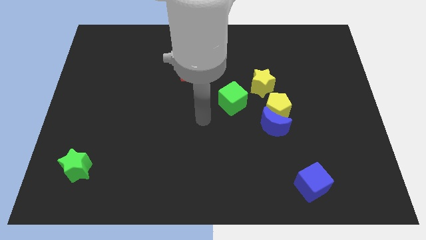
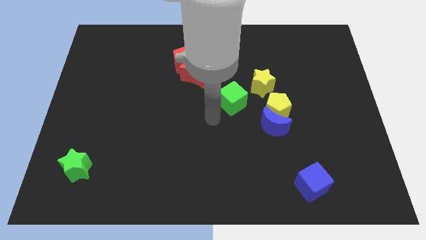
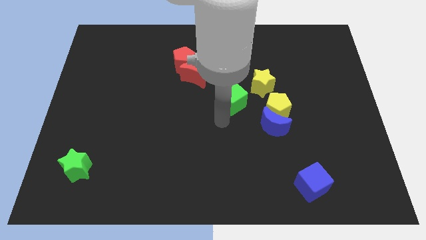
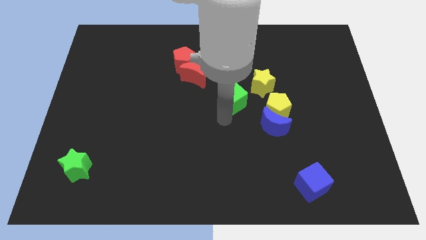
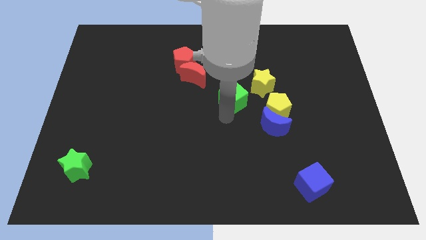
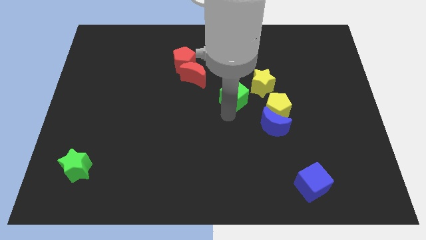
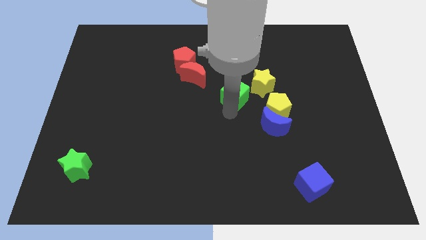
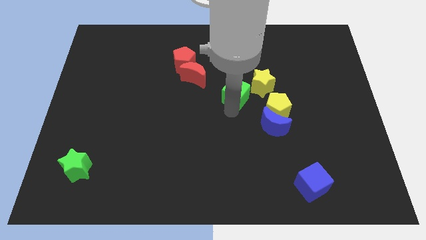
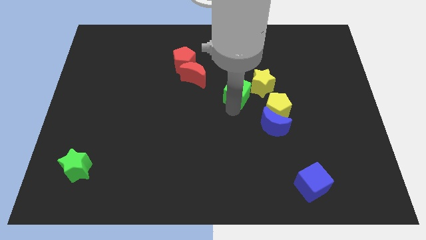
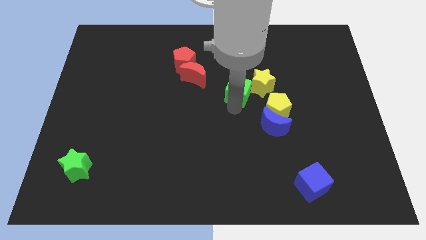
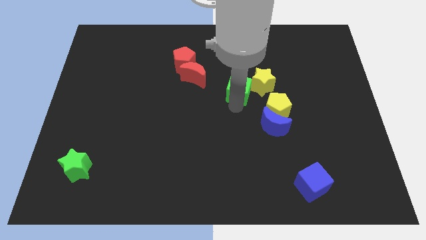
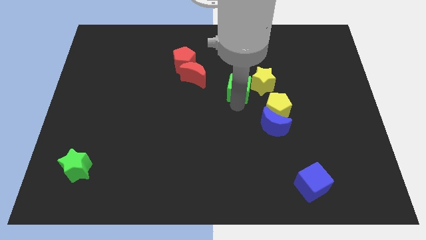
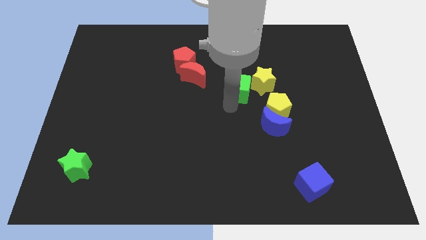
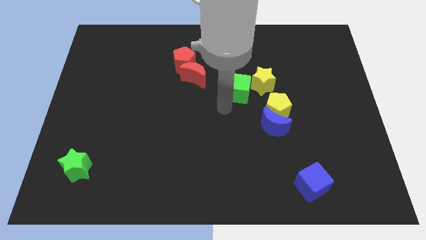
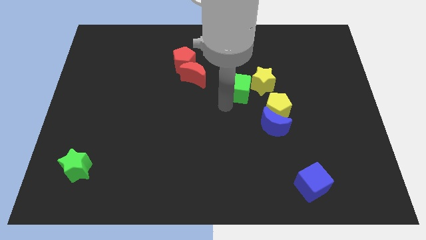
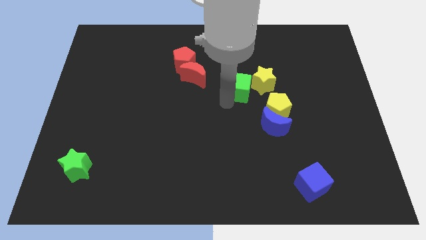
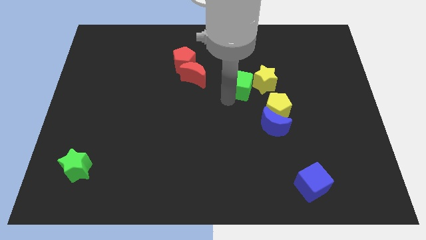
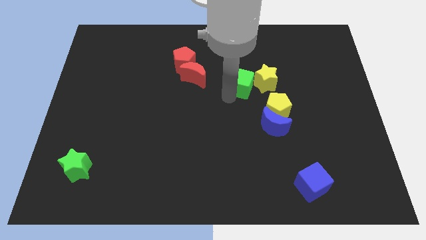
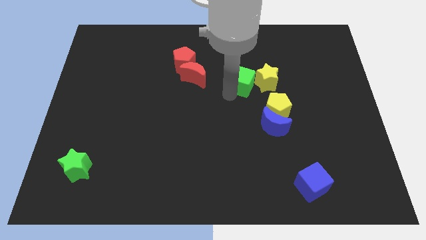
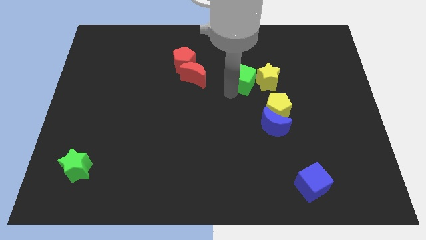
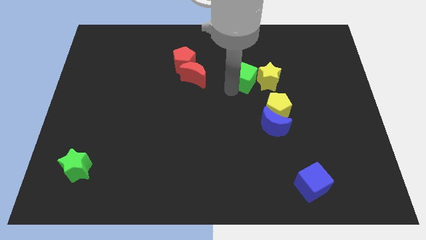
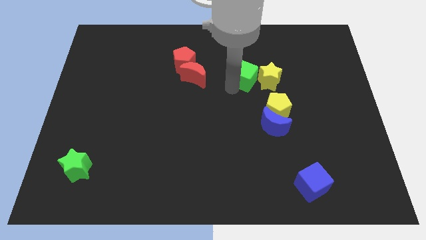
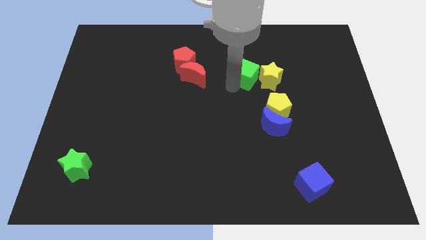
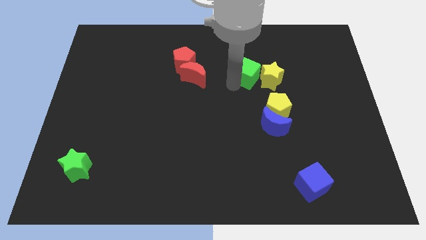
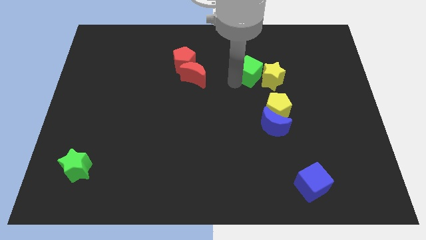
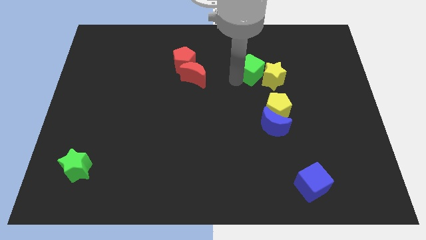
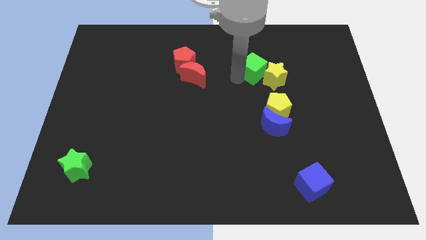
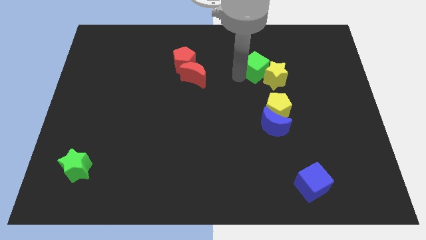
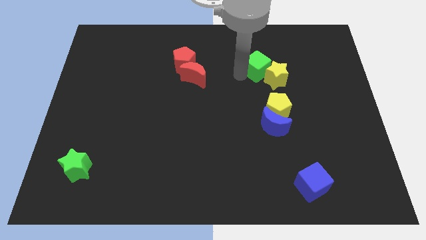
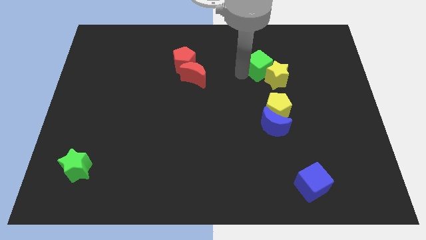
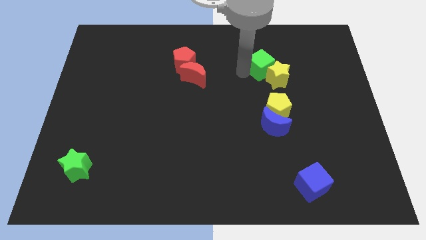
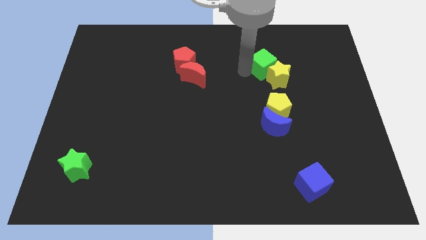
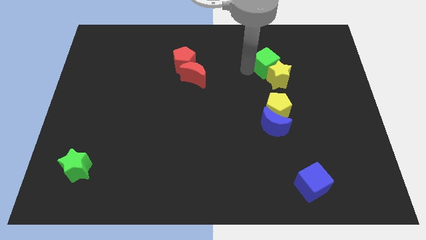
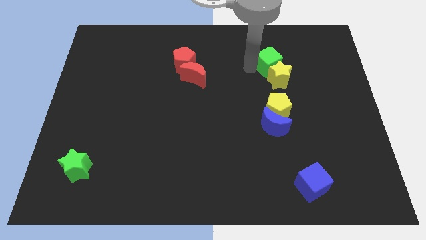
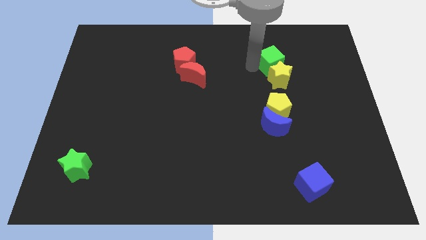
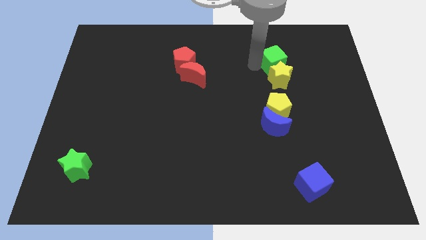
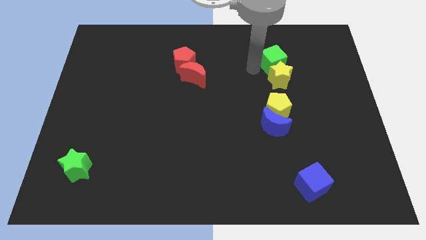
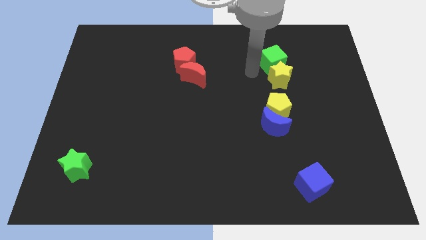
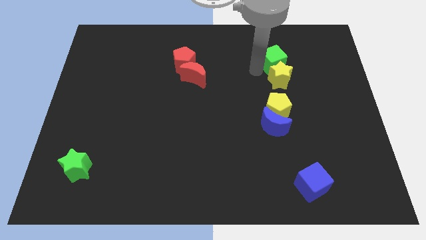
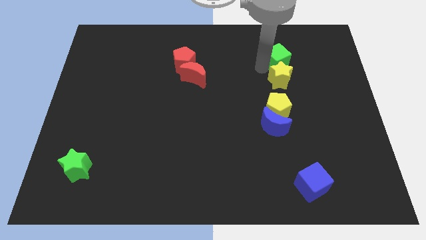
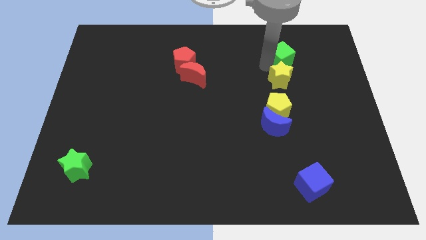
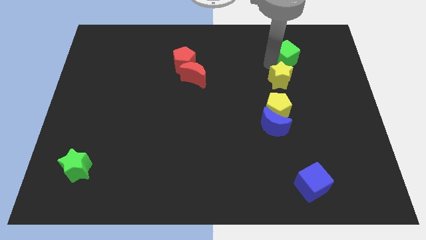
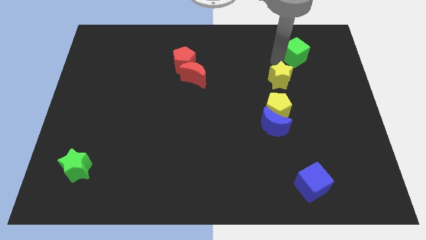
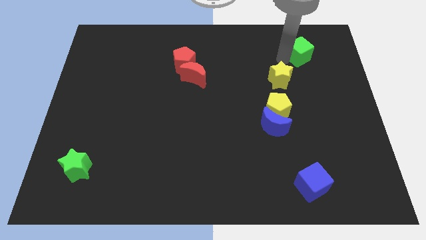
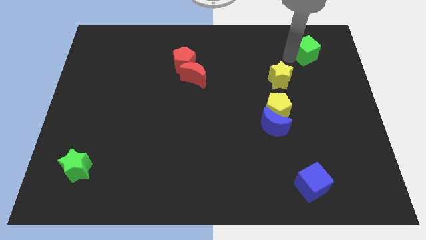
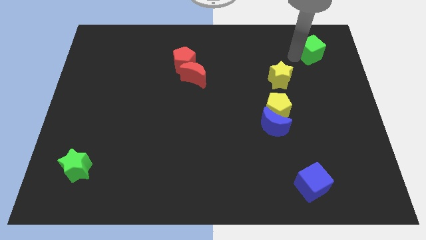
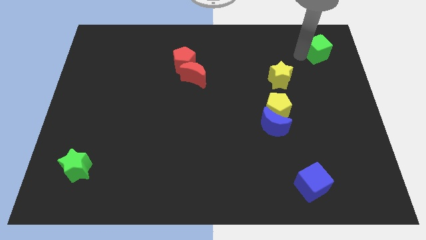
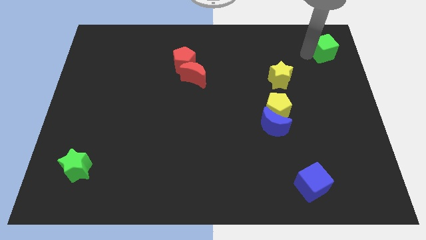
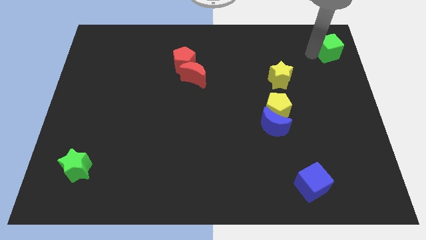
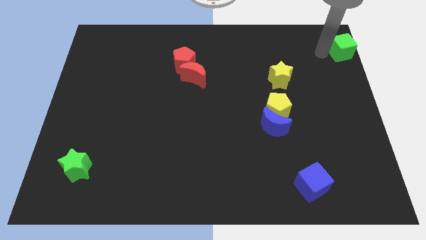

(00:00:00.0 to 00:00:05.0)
move the green cube to the top right of the board

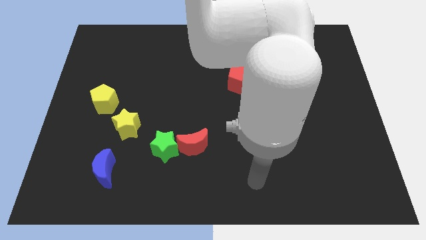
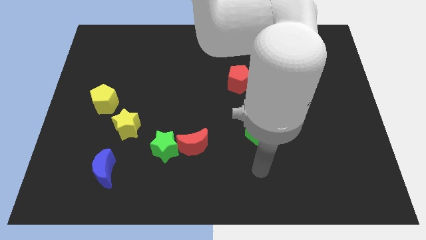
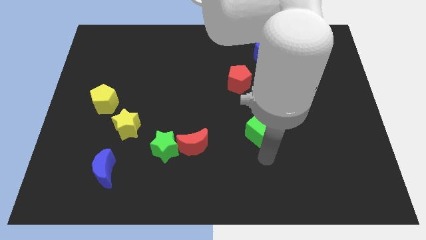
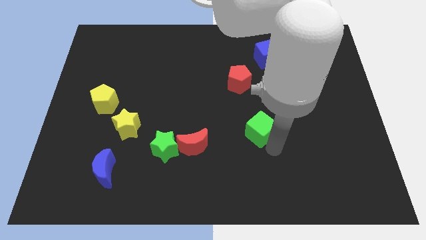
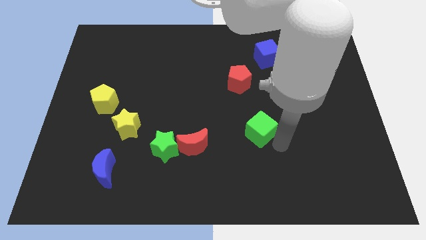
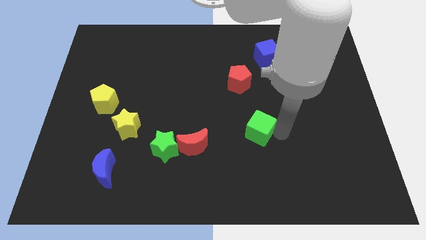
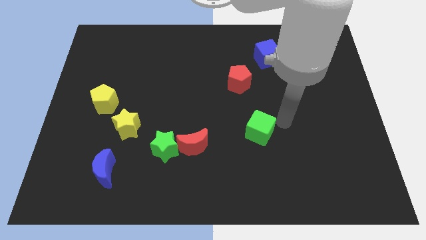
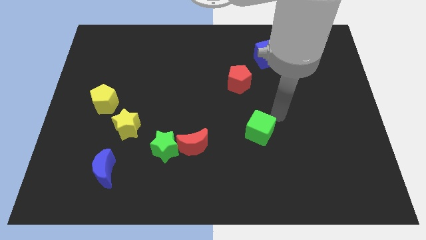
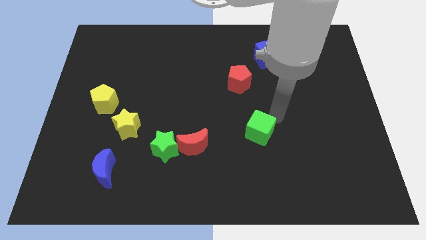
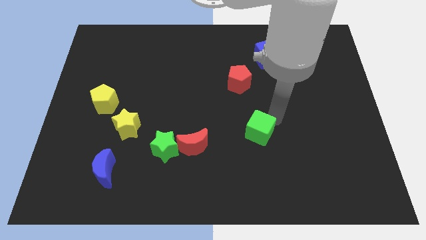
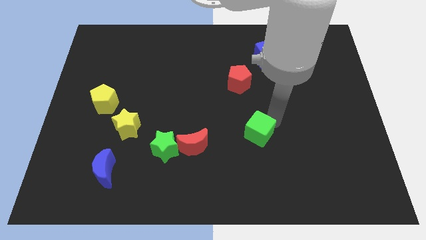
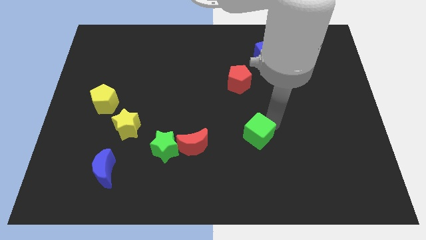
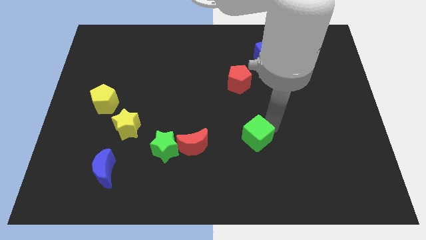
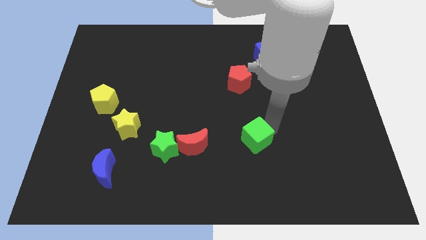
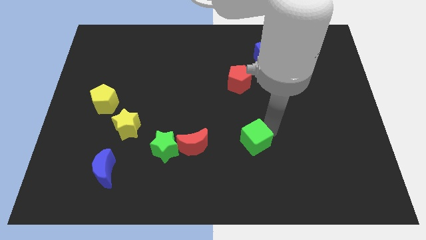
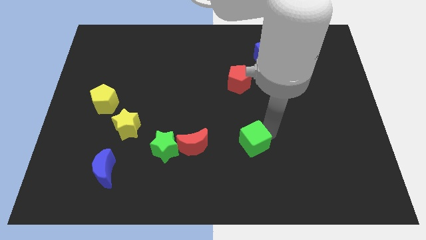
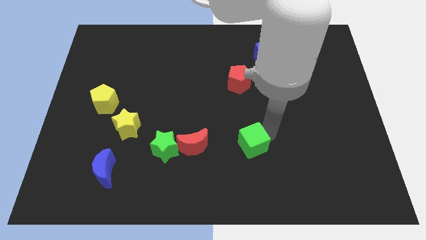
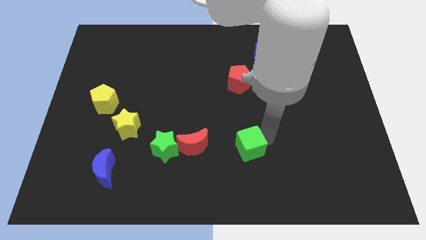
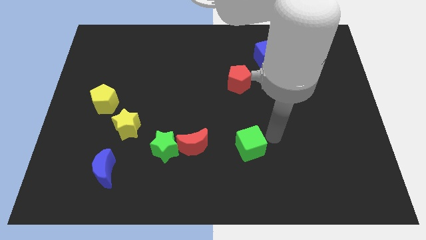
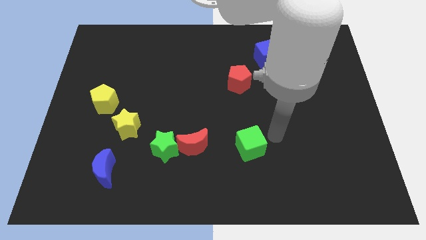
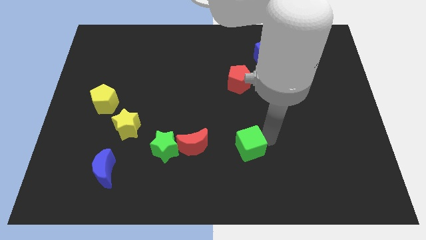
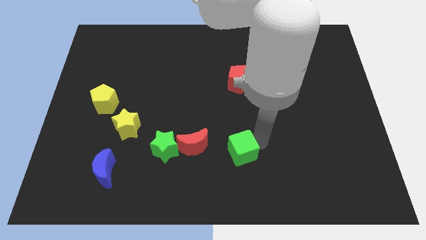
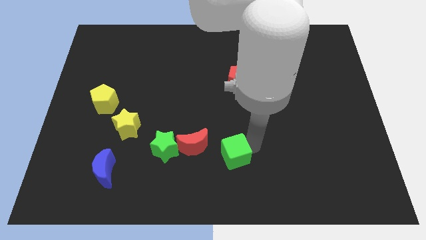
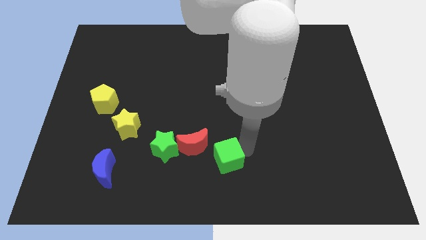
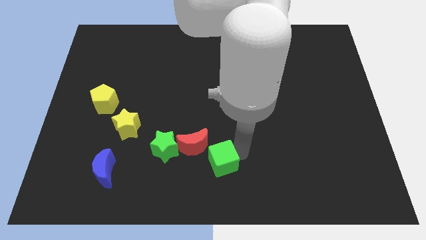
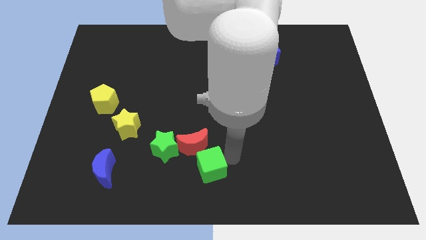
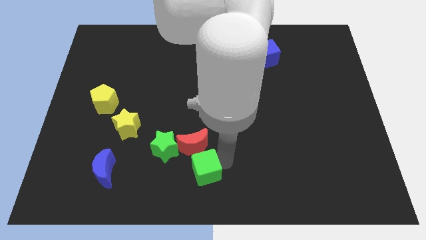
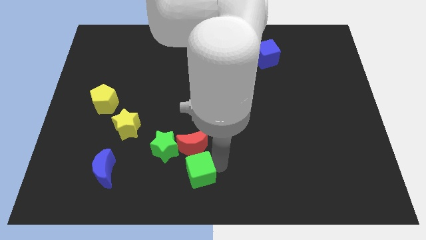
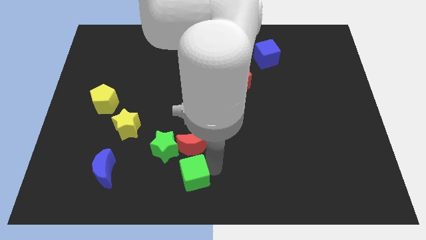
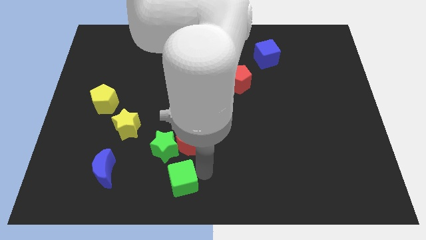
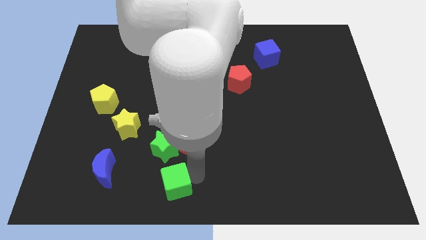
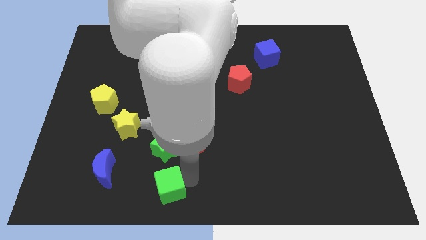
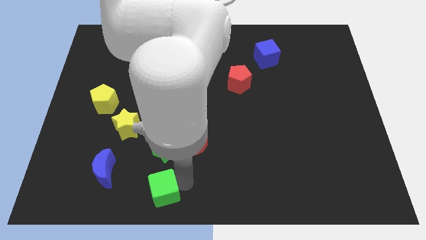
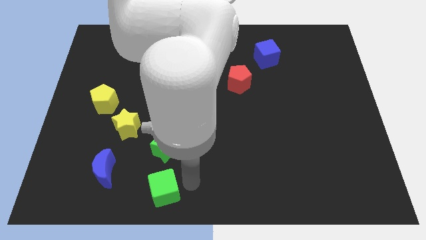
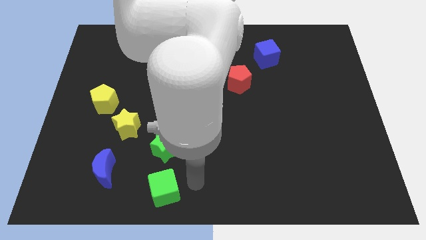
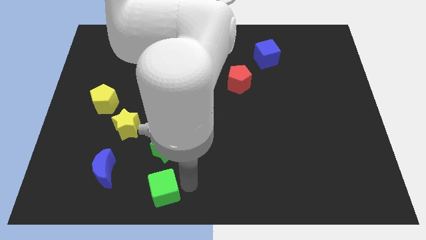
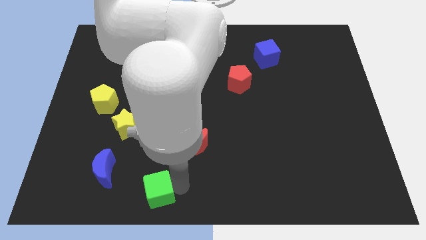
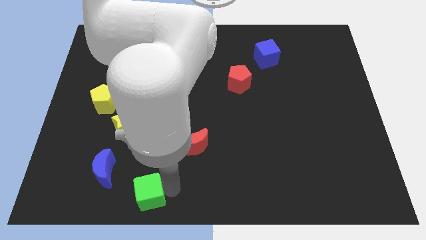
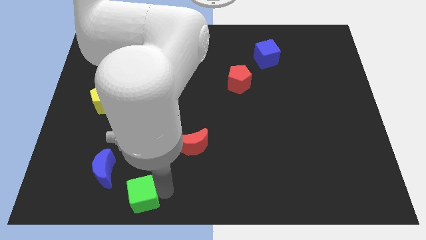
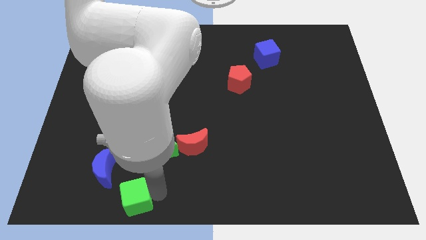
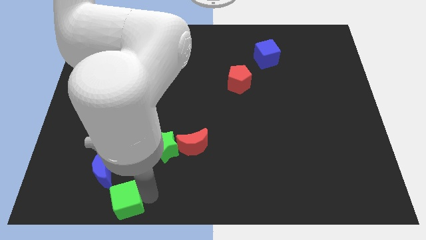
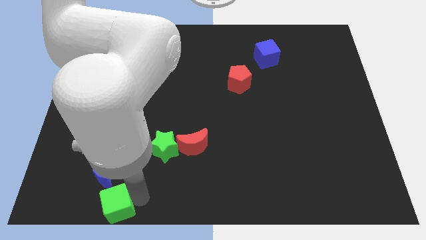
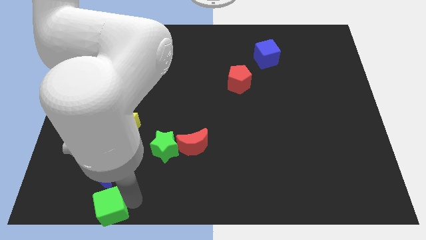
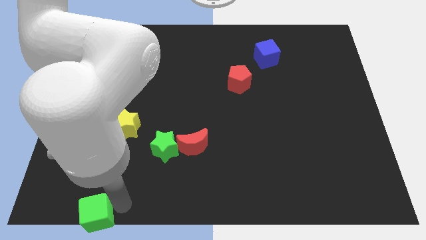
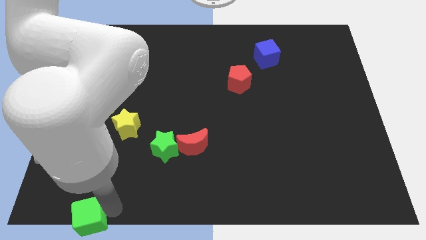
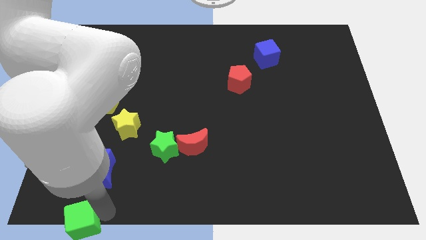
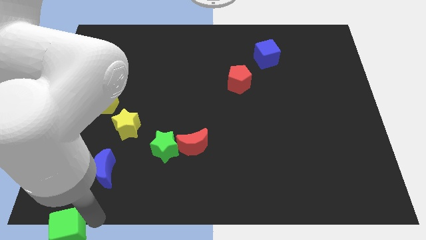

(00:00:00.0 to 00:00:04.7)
move the green cube to the lower left corner
